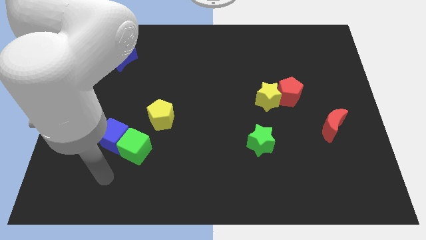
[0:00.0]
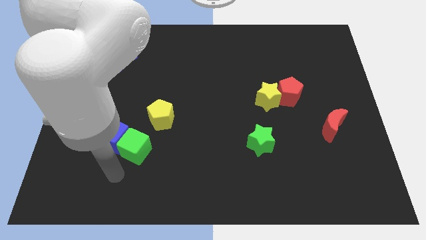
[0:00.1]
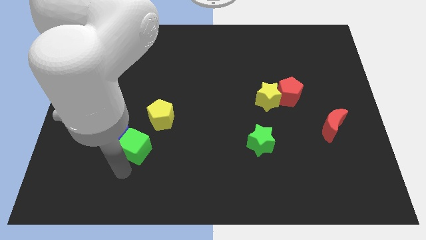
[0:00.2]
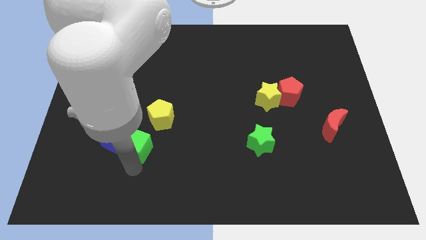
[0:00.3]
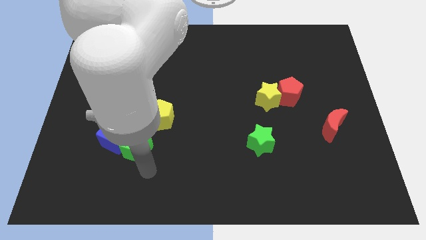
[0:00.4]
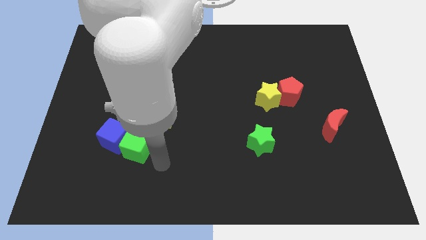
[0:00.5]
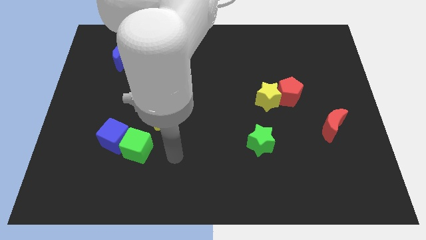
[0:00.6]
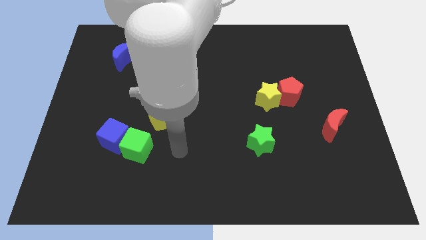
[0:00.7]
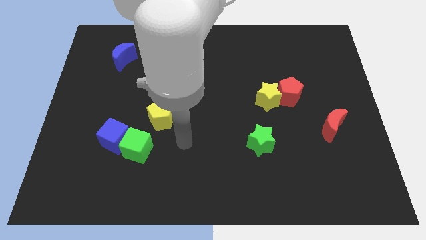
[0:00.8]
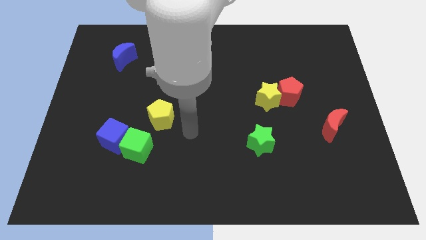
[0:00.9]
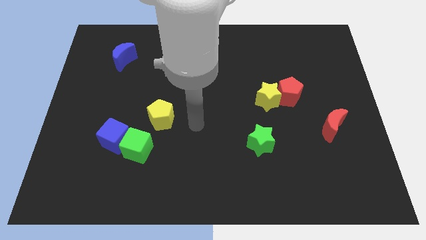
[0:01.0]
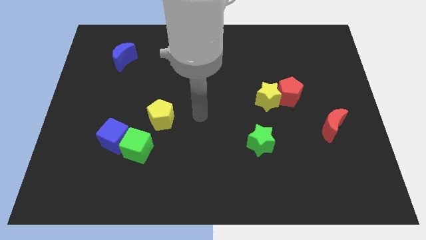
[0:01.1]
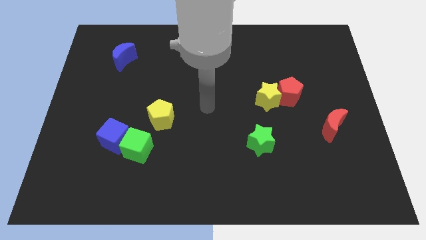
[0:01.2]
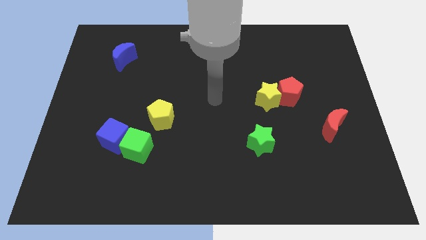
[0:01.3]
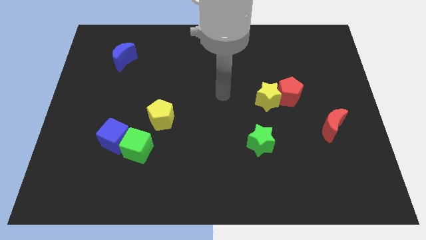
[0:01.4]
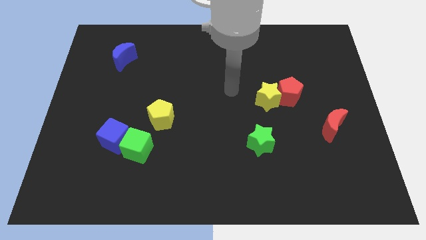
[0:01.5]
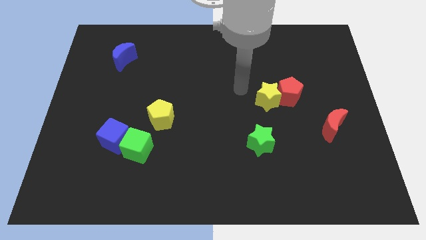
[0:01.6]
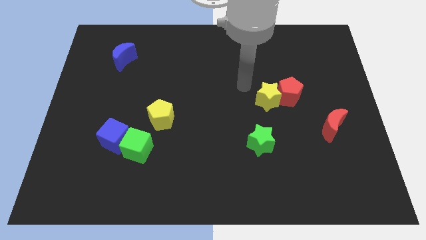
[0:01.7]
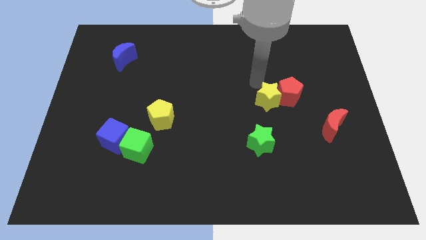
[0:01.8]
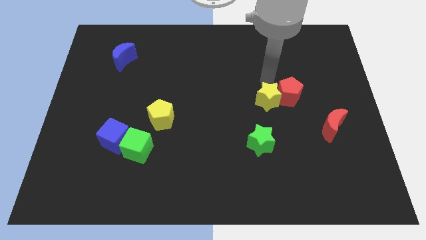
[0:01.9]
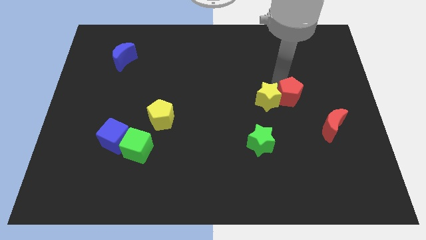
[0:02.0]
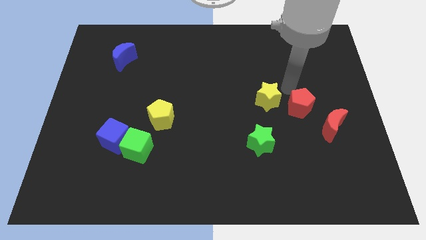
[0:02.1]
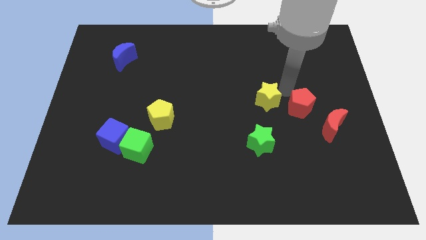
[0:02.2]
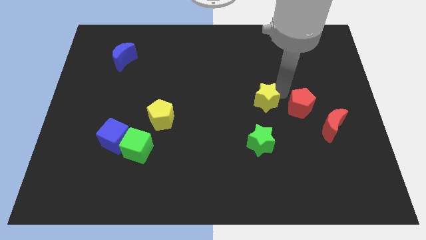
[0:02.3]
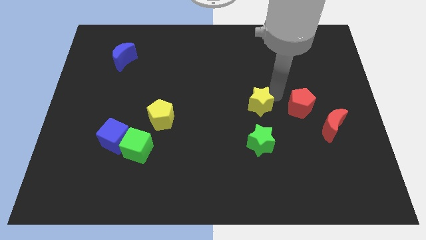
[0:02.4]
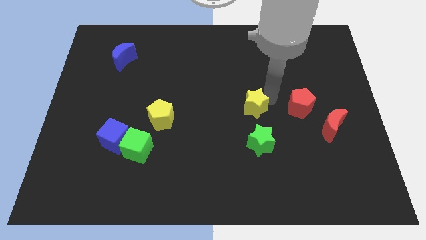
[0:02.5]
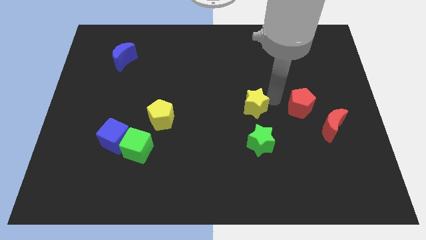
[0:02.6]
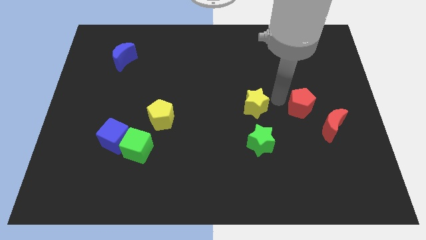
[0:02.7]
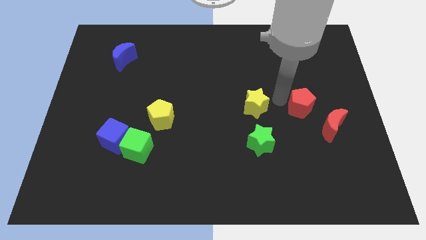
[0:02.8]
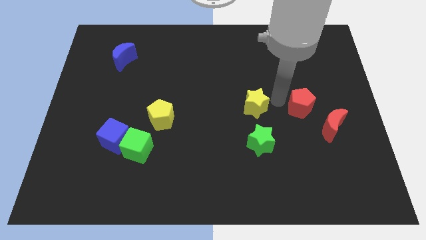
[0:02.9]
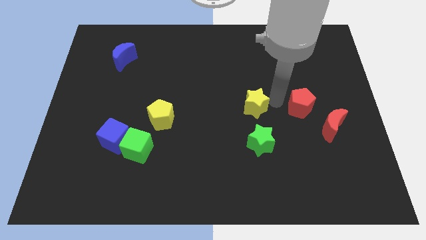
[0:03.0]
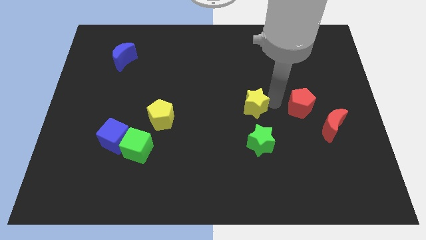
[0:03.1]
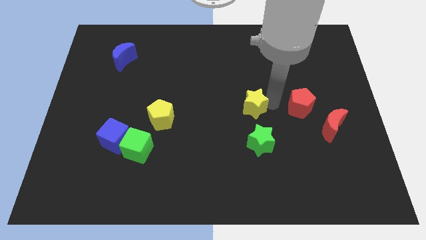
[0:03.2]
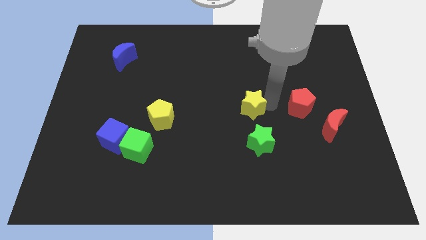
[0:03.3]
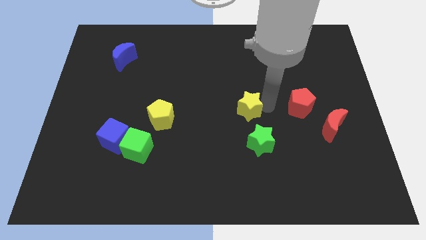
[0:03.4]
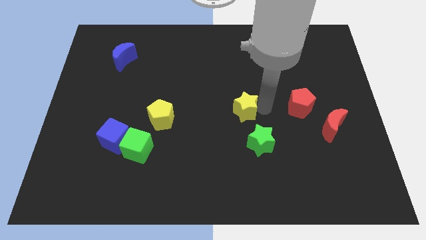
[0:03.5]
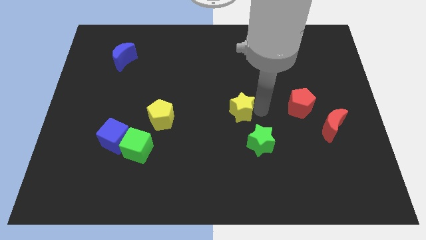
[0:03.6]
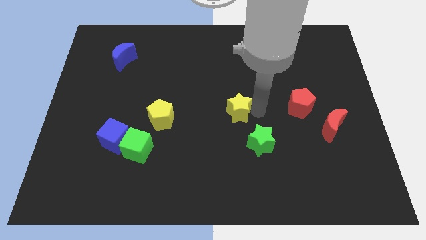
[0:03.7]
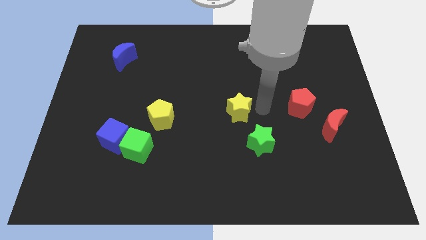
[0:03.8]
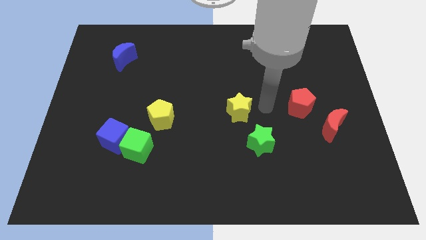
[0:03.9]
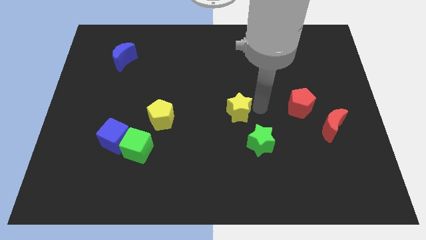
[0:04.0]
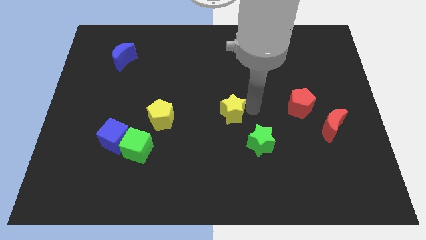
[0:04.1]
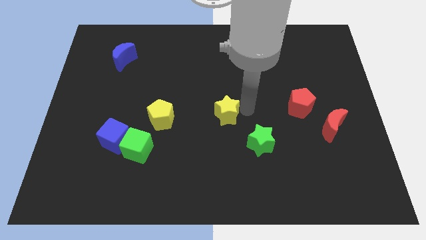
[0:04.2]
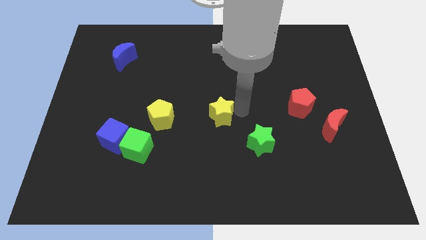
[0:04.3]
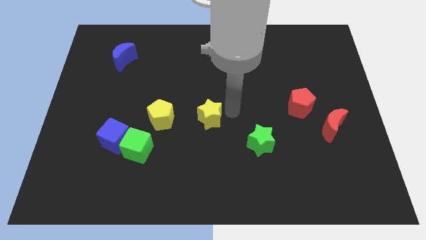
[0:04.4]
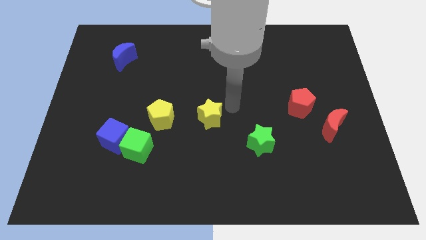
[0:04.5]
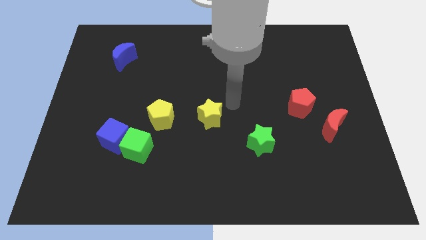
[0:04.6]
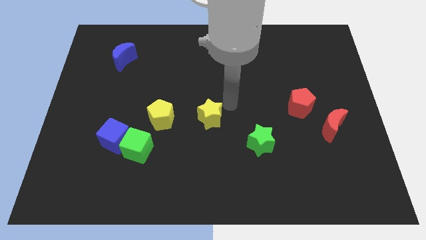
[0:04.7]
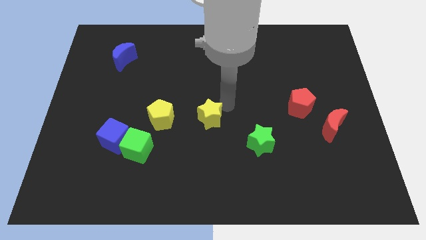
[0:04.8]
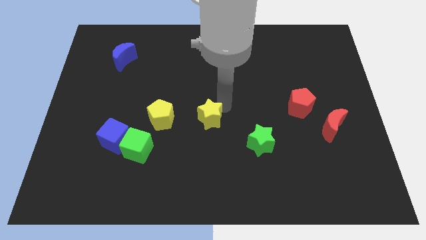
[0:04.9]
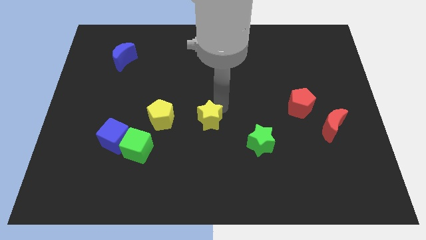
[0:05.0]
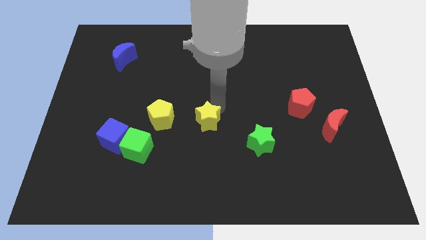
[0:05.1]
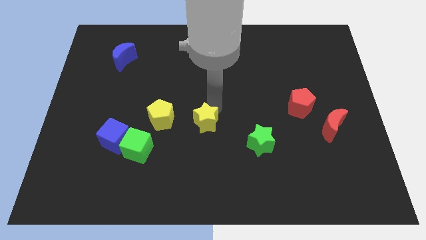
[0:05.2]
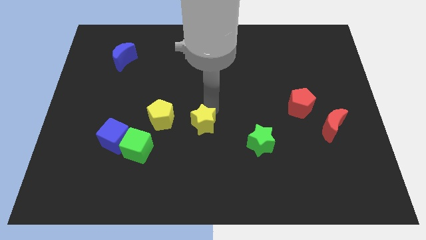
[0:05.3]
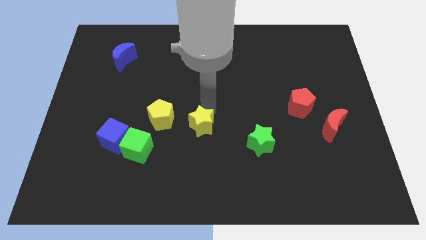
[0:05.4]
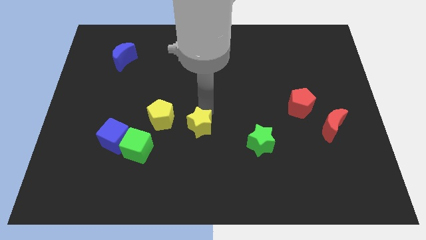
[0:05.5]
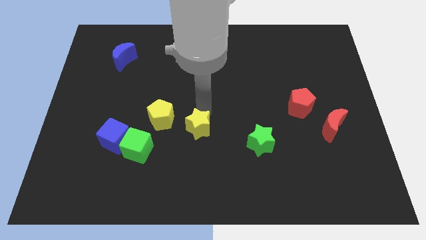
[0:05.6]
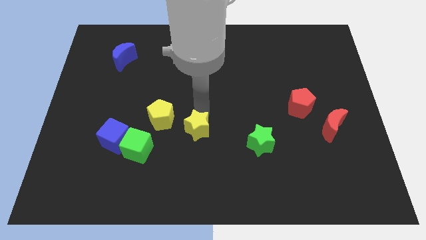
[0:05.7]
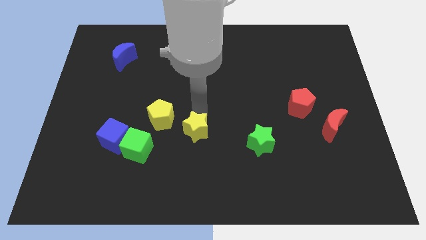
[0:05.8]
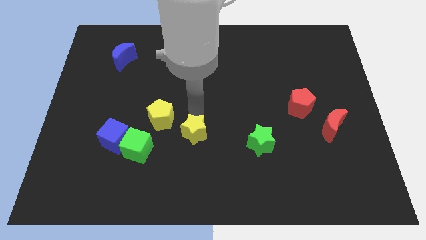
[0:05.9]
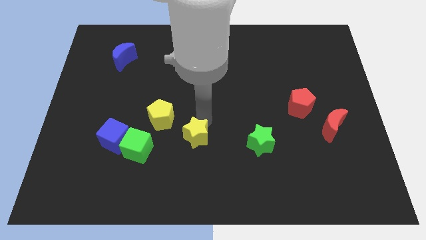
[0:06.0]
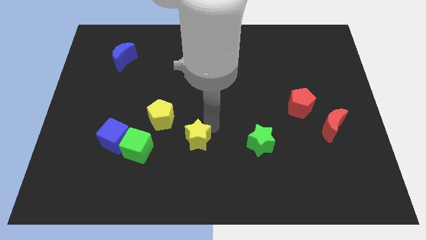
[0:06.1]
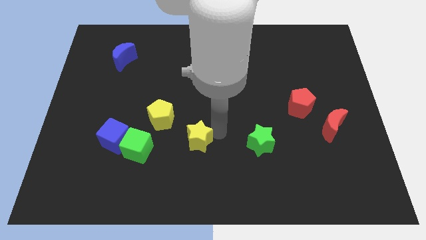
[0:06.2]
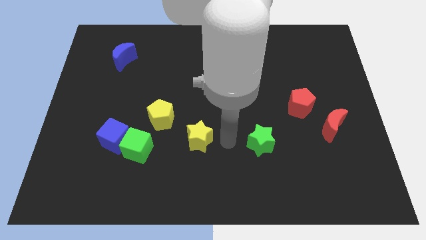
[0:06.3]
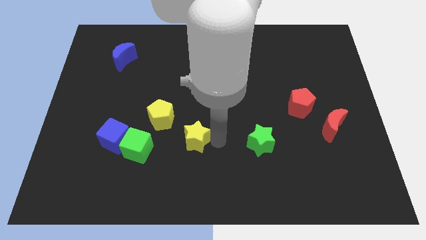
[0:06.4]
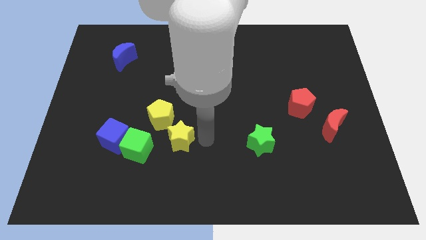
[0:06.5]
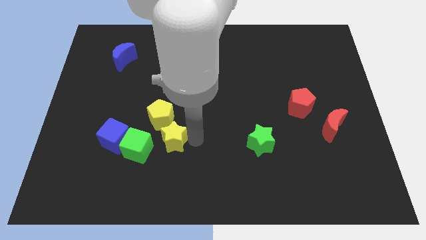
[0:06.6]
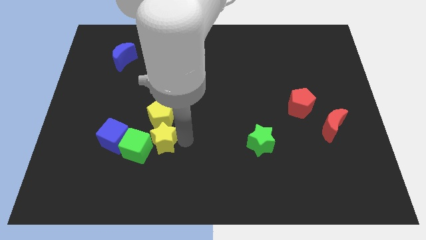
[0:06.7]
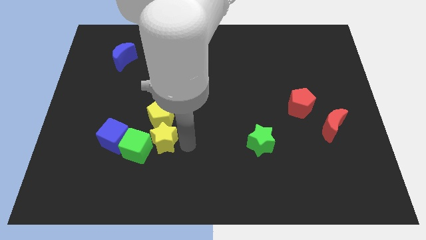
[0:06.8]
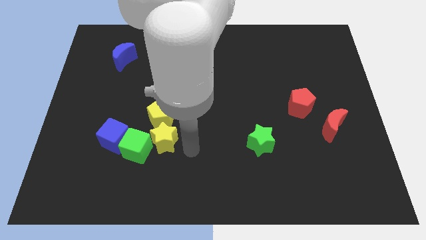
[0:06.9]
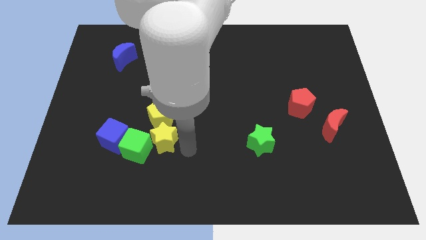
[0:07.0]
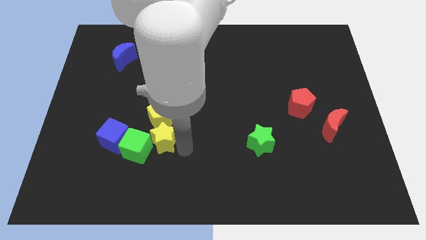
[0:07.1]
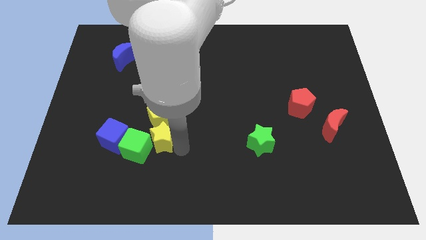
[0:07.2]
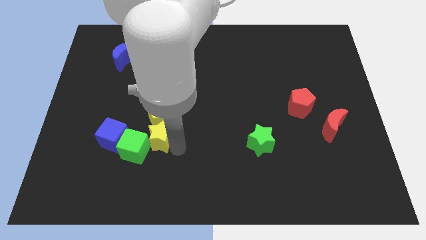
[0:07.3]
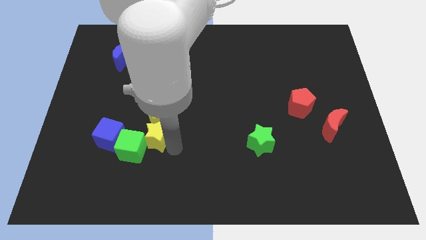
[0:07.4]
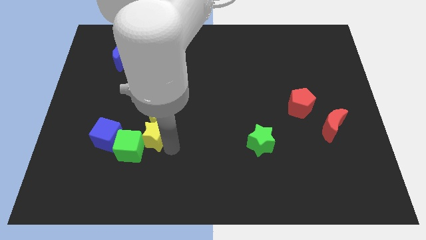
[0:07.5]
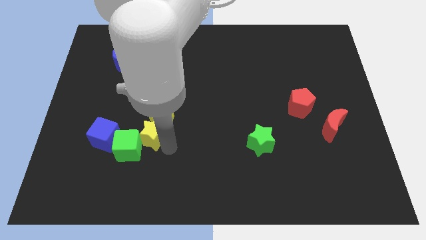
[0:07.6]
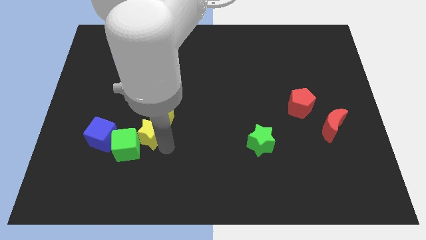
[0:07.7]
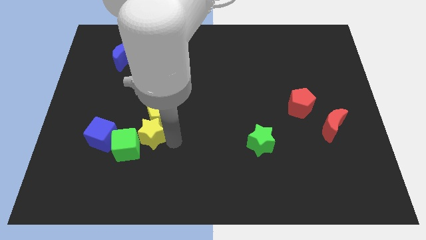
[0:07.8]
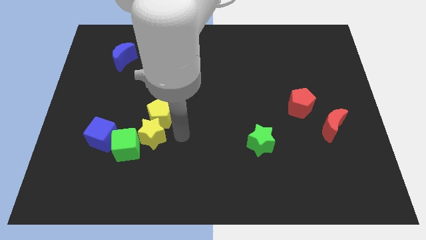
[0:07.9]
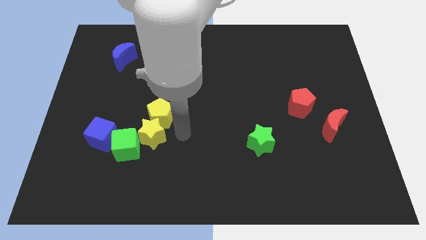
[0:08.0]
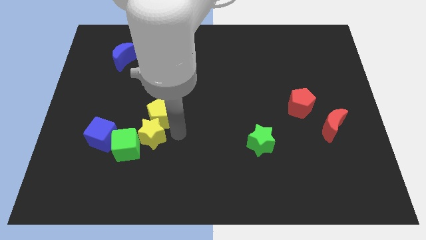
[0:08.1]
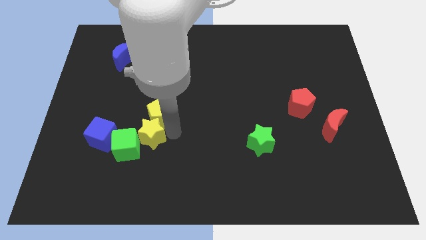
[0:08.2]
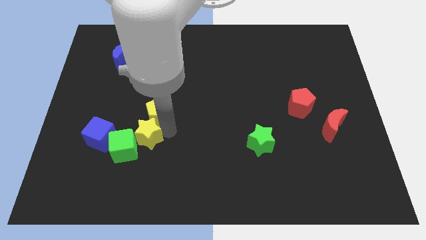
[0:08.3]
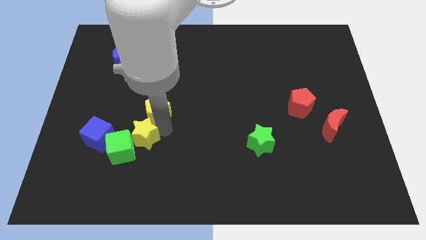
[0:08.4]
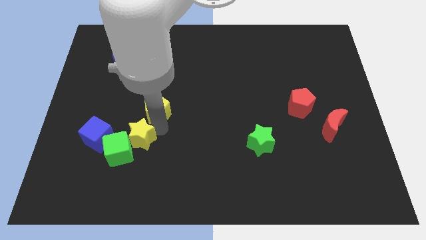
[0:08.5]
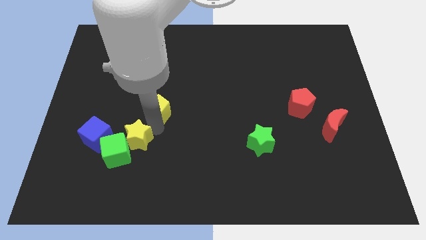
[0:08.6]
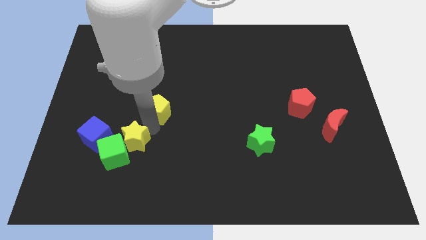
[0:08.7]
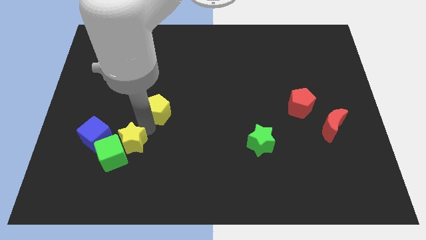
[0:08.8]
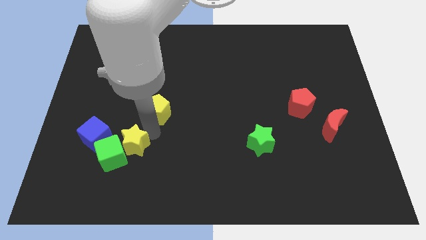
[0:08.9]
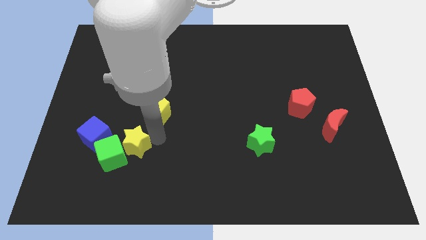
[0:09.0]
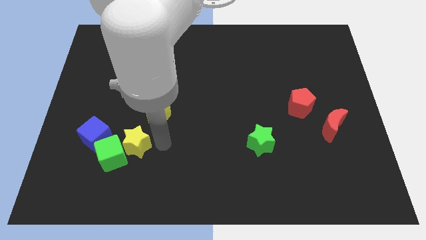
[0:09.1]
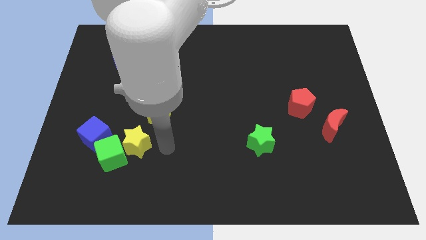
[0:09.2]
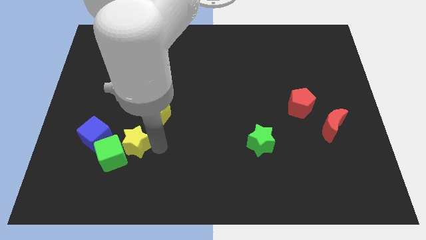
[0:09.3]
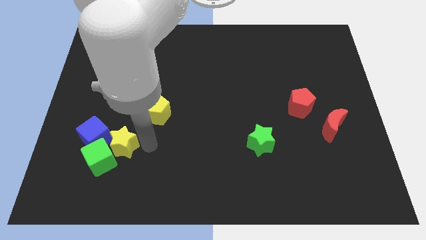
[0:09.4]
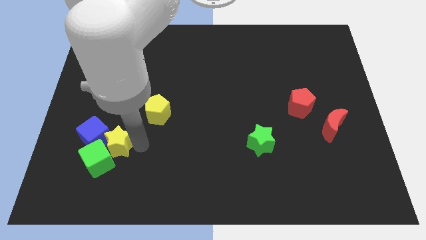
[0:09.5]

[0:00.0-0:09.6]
slide the yellow star close to the blue cube
